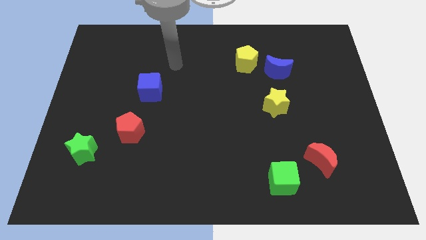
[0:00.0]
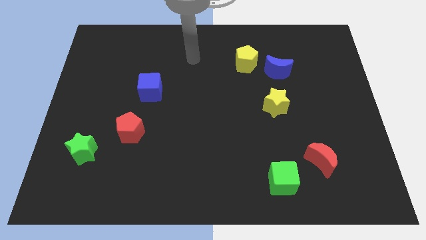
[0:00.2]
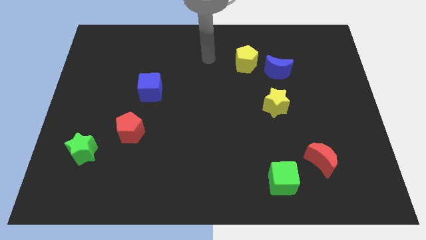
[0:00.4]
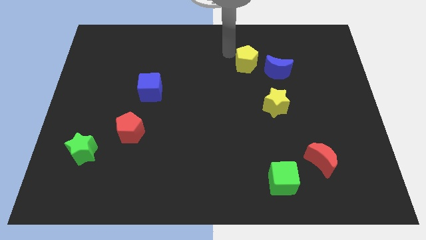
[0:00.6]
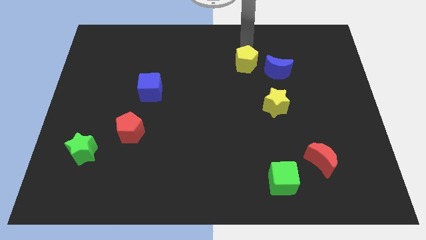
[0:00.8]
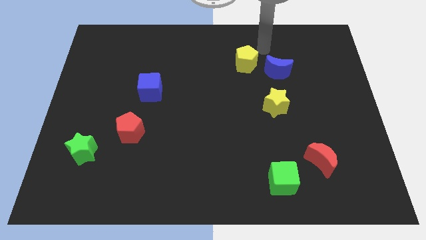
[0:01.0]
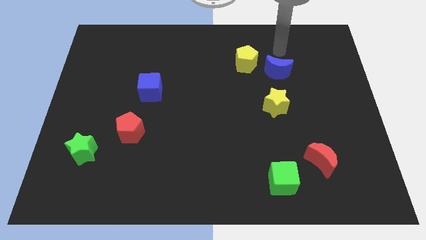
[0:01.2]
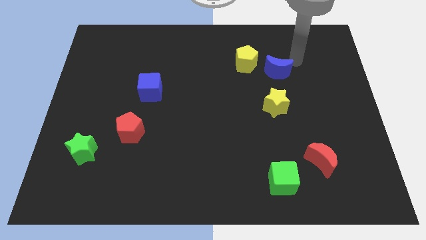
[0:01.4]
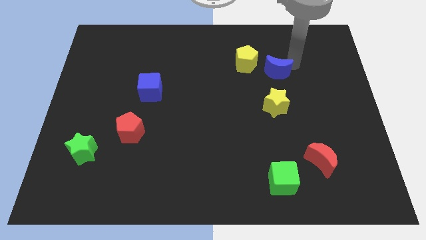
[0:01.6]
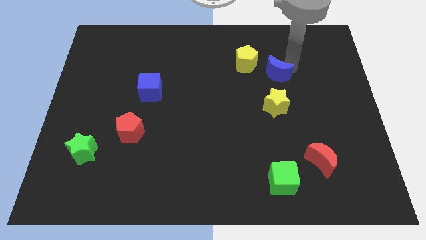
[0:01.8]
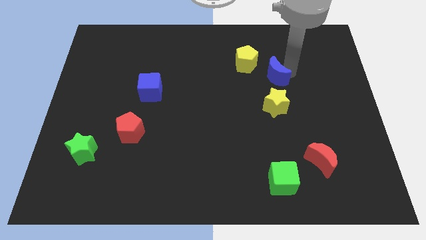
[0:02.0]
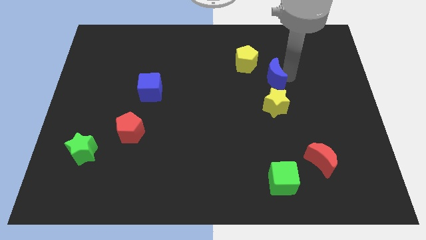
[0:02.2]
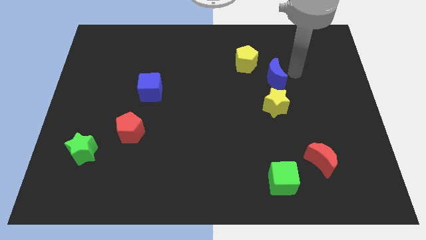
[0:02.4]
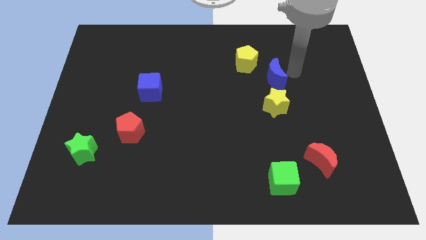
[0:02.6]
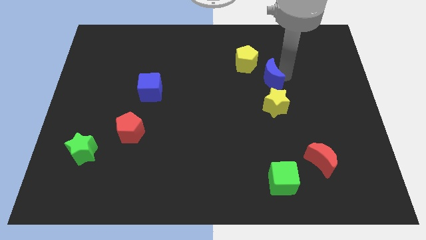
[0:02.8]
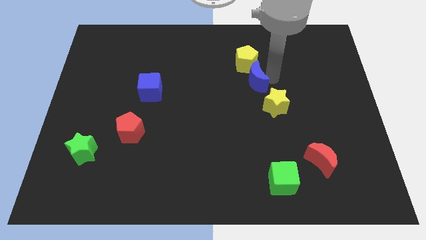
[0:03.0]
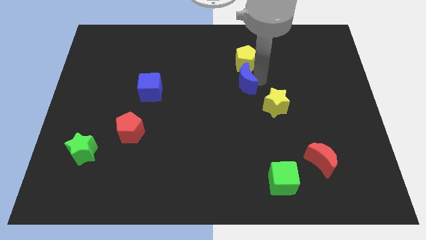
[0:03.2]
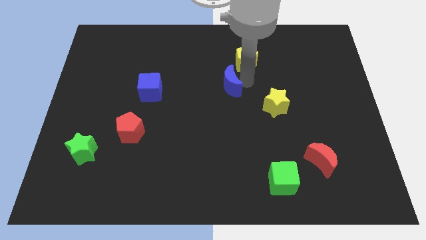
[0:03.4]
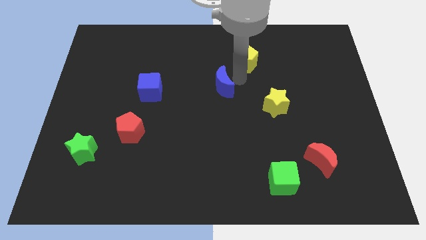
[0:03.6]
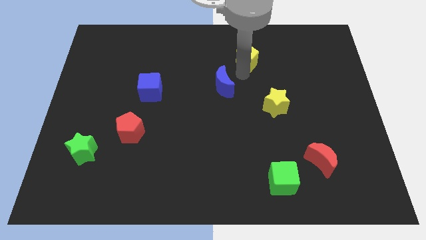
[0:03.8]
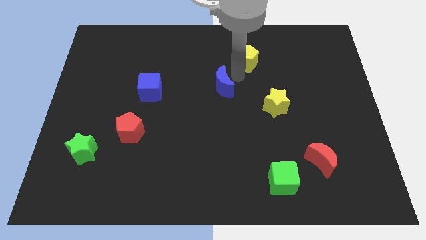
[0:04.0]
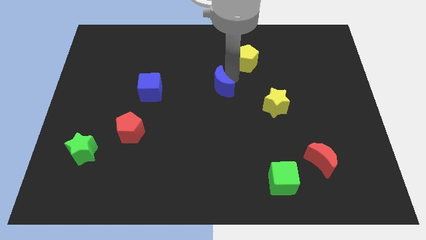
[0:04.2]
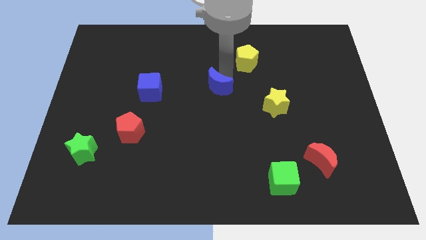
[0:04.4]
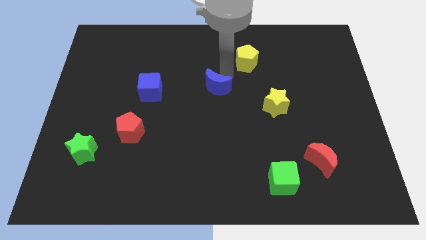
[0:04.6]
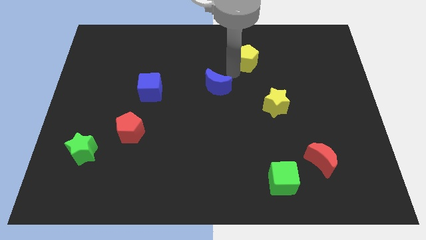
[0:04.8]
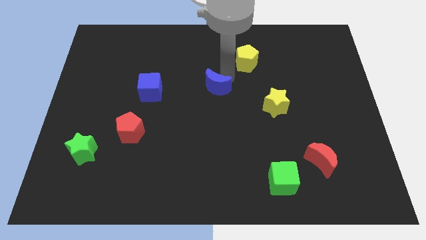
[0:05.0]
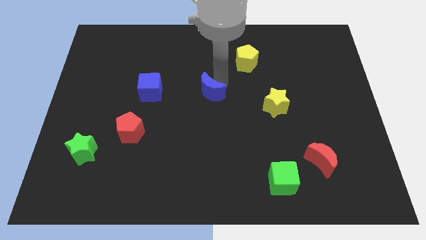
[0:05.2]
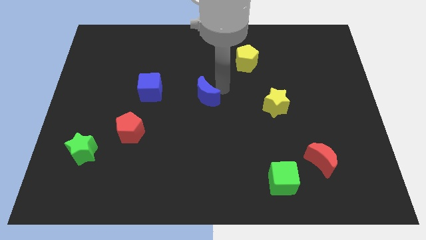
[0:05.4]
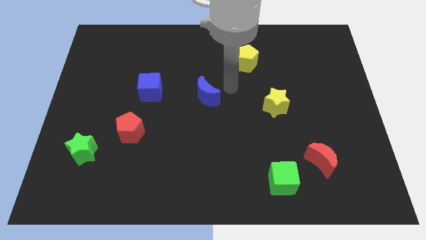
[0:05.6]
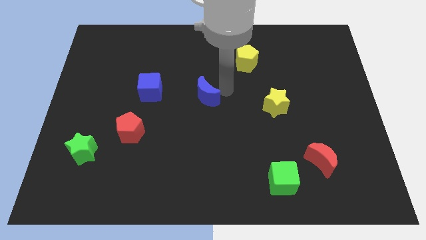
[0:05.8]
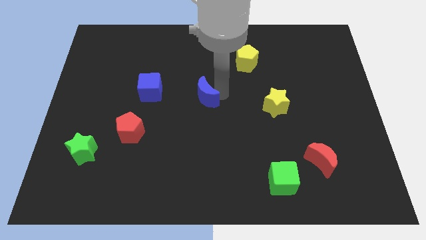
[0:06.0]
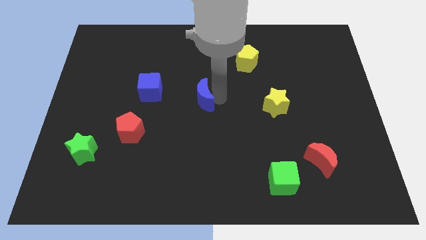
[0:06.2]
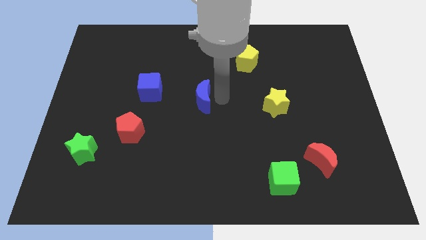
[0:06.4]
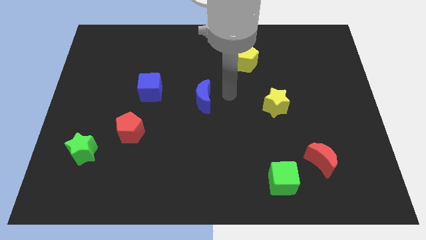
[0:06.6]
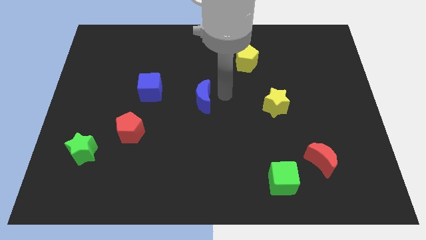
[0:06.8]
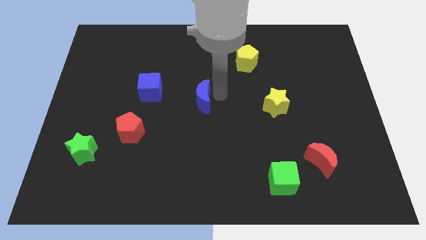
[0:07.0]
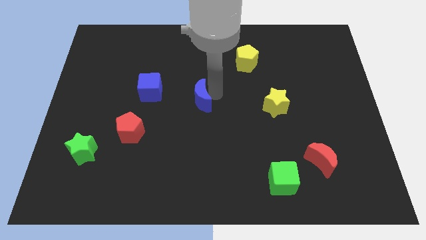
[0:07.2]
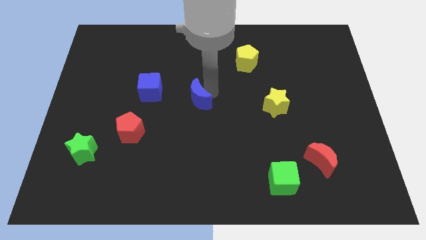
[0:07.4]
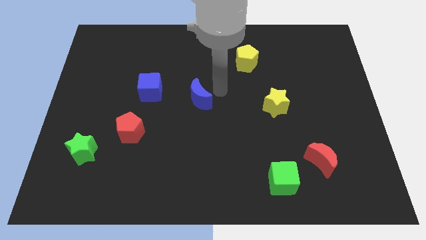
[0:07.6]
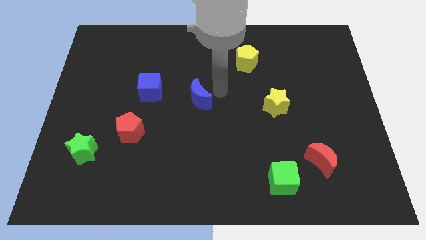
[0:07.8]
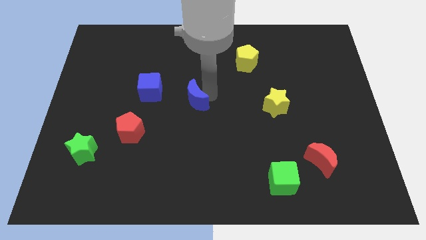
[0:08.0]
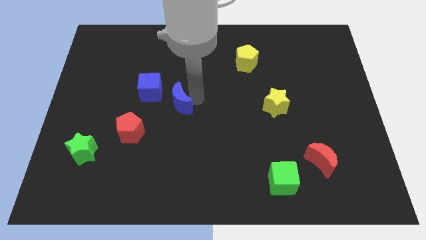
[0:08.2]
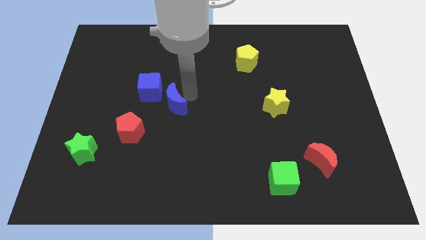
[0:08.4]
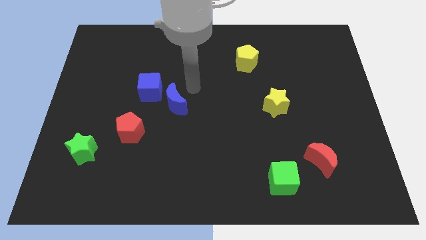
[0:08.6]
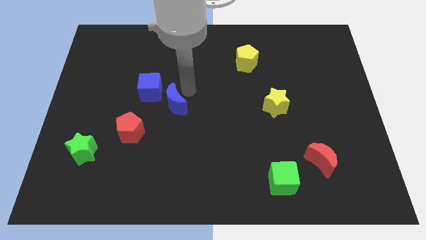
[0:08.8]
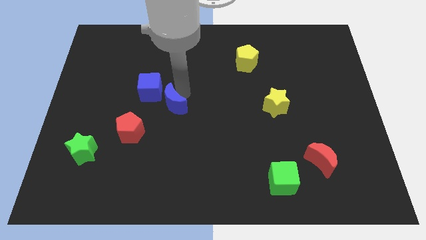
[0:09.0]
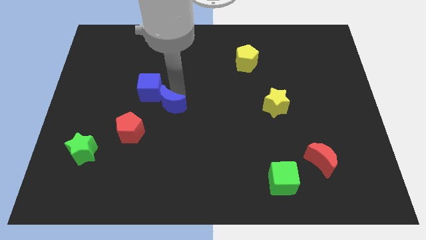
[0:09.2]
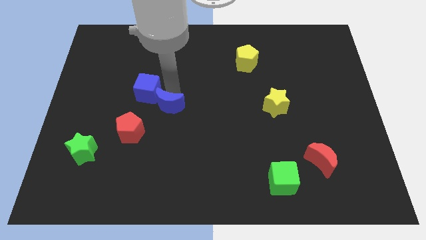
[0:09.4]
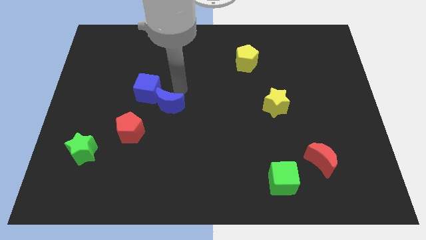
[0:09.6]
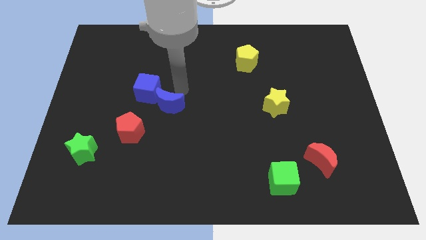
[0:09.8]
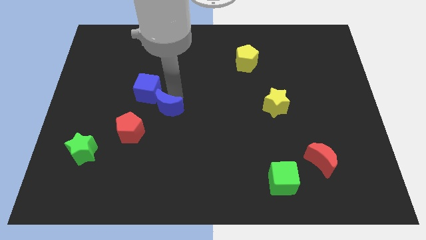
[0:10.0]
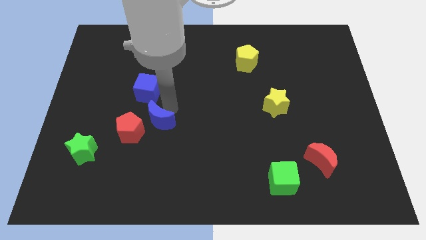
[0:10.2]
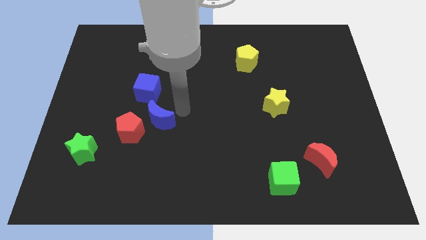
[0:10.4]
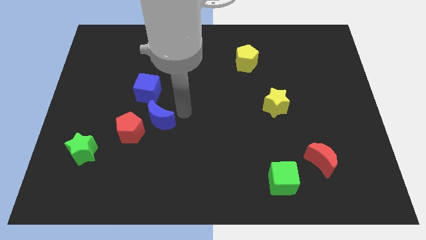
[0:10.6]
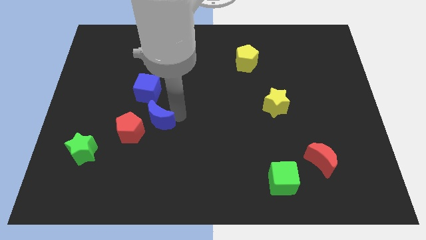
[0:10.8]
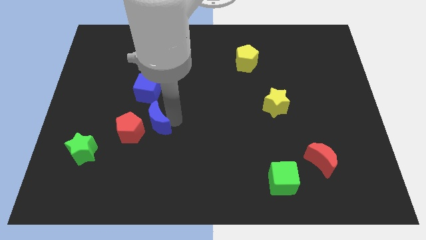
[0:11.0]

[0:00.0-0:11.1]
push the blue moon to the red pentagon

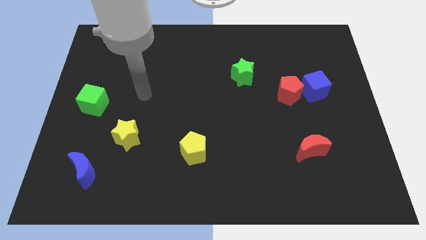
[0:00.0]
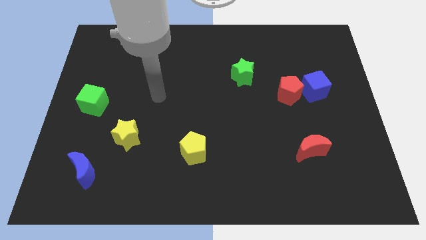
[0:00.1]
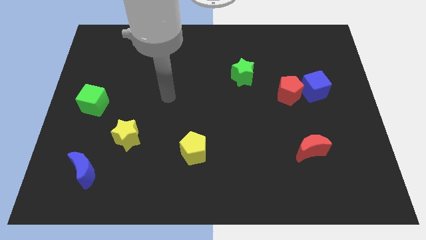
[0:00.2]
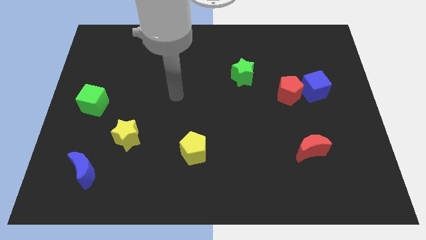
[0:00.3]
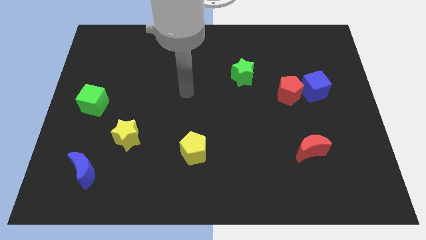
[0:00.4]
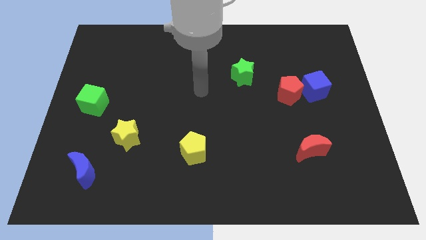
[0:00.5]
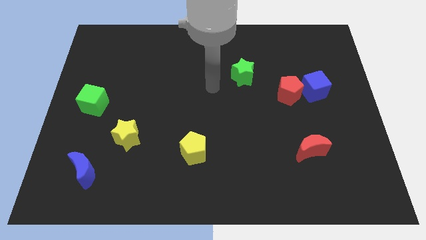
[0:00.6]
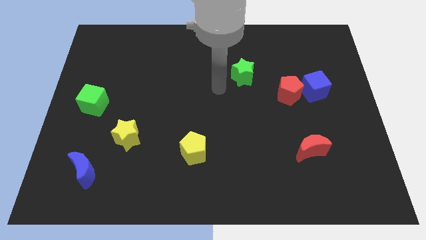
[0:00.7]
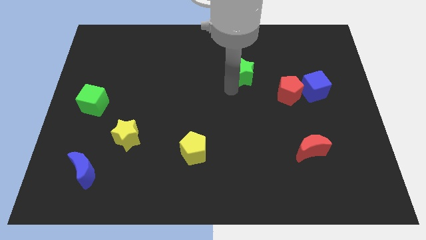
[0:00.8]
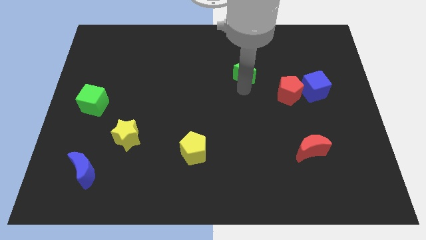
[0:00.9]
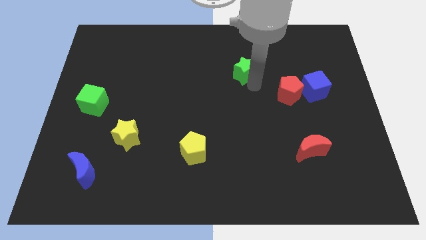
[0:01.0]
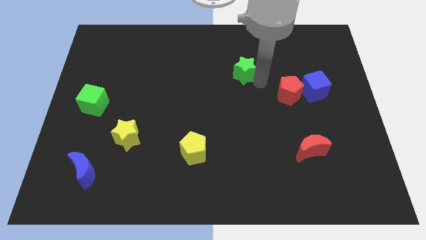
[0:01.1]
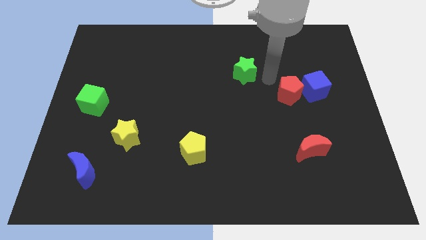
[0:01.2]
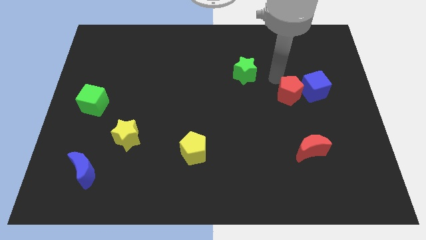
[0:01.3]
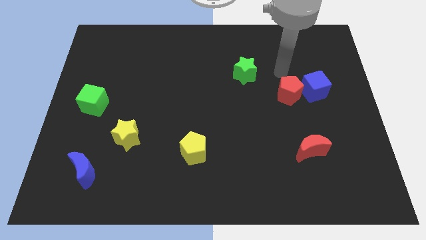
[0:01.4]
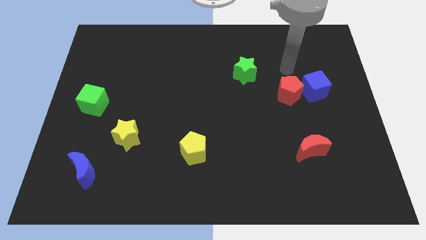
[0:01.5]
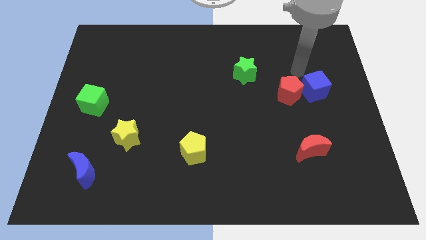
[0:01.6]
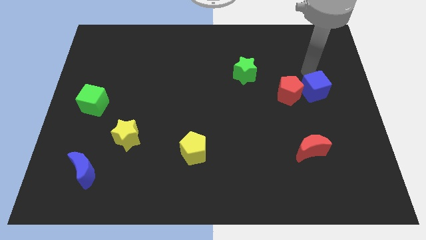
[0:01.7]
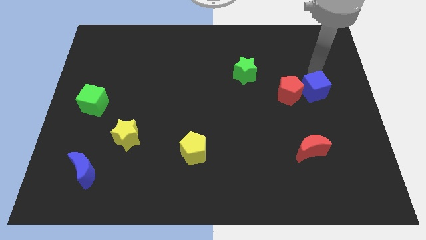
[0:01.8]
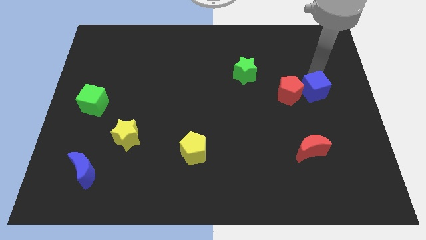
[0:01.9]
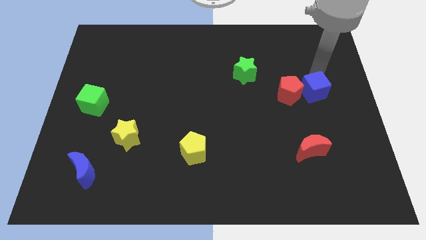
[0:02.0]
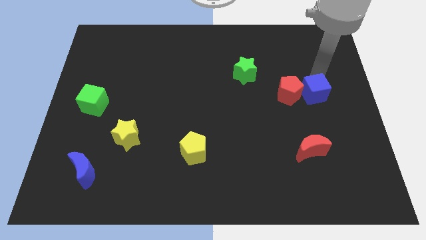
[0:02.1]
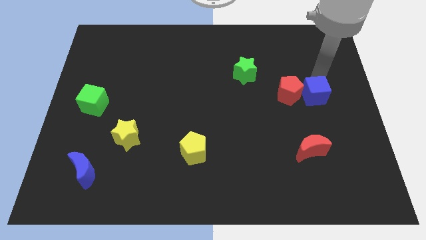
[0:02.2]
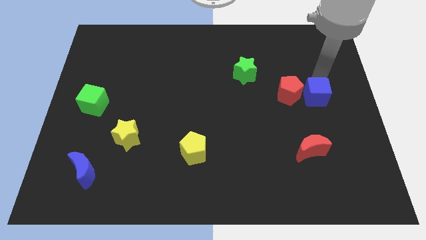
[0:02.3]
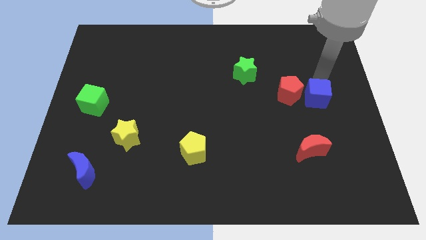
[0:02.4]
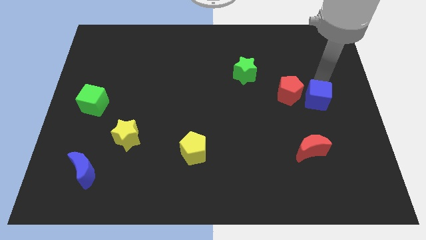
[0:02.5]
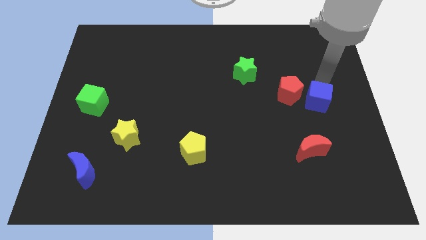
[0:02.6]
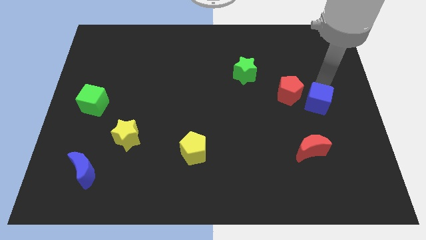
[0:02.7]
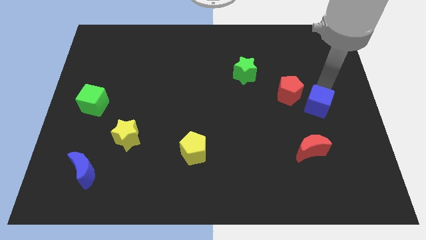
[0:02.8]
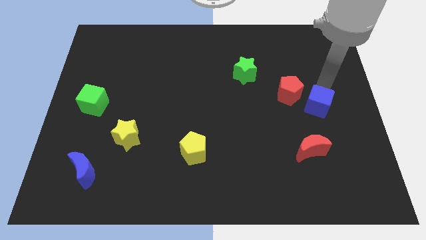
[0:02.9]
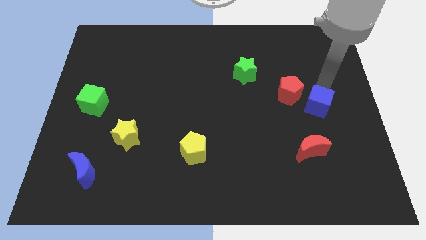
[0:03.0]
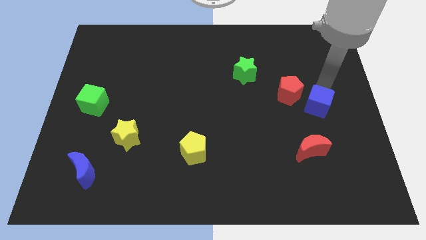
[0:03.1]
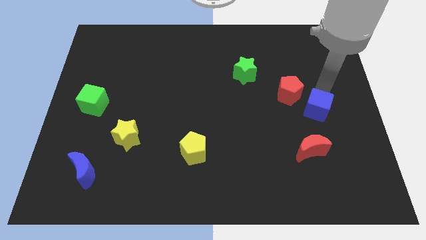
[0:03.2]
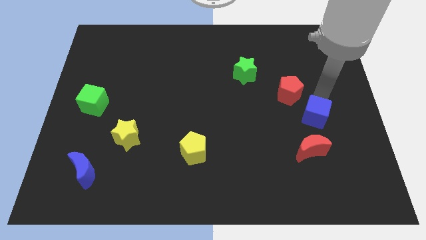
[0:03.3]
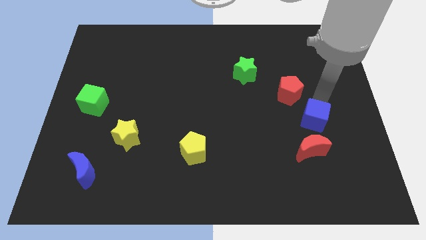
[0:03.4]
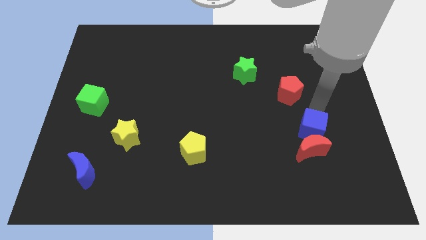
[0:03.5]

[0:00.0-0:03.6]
push the blue cube close to the red moon
